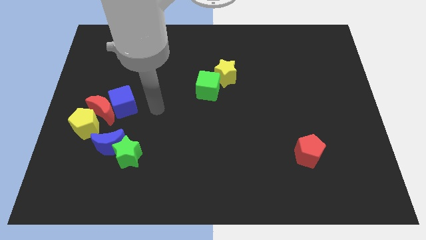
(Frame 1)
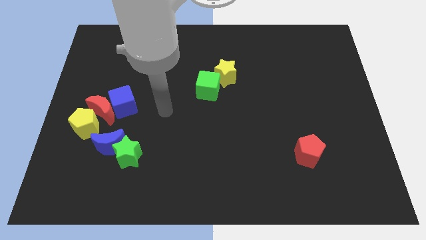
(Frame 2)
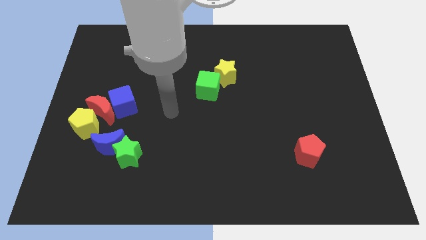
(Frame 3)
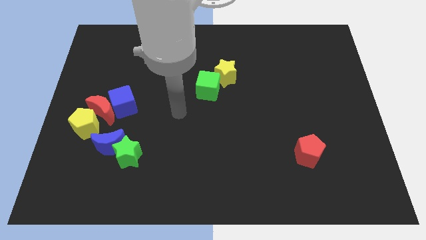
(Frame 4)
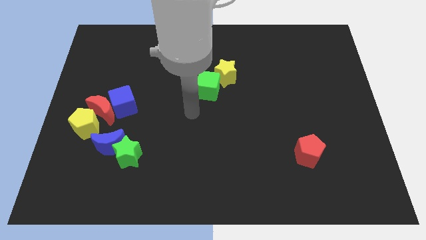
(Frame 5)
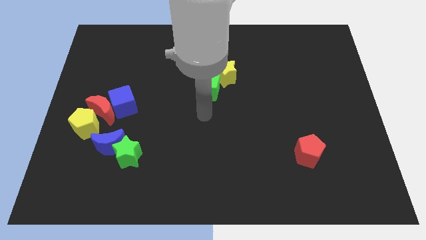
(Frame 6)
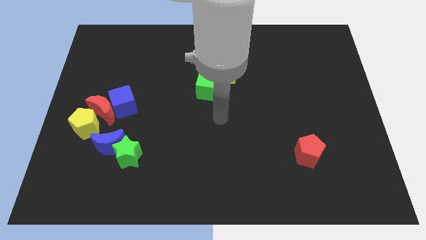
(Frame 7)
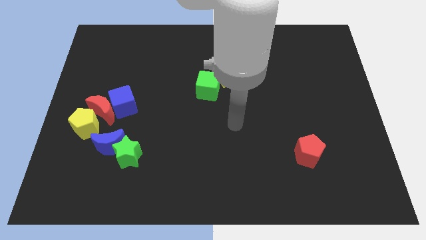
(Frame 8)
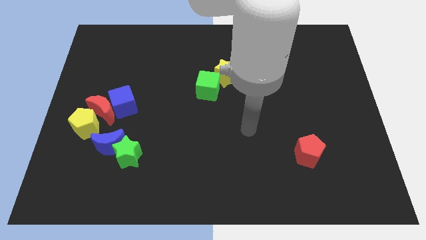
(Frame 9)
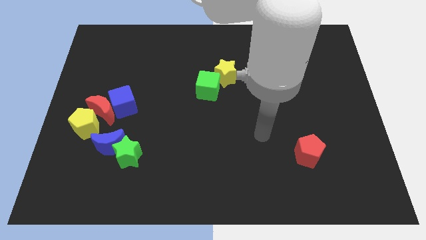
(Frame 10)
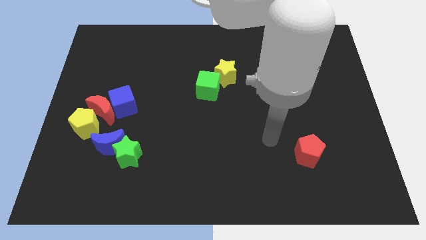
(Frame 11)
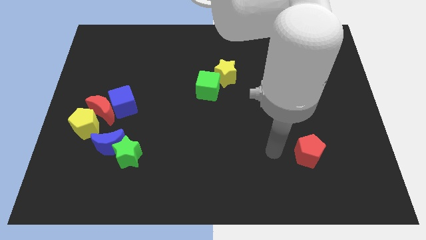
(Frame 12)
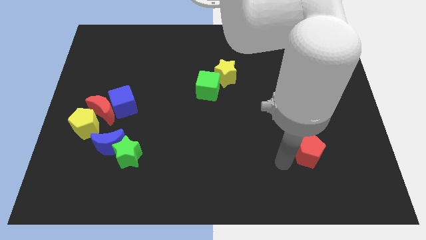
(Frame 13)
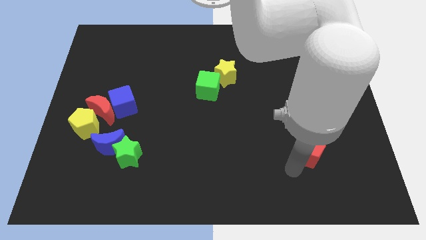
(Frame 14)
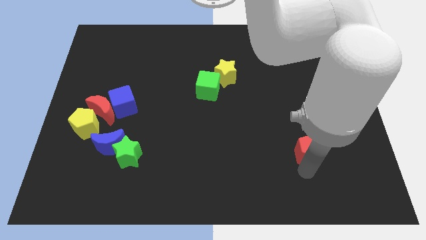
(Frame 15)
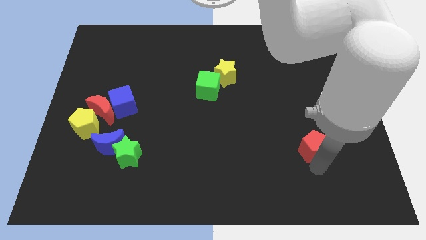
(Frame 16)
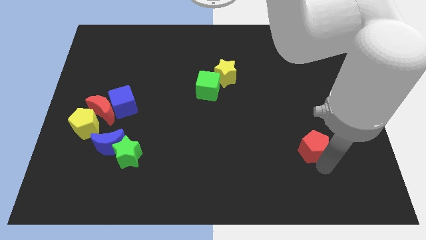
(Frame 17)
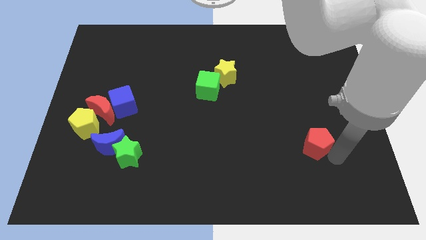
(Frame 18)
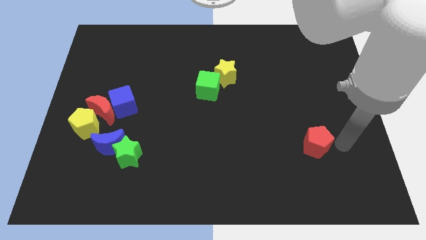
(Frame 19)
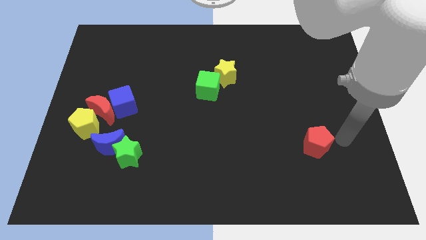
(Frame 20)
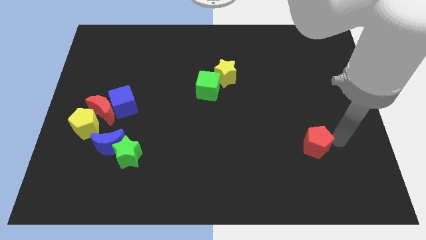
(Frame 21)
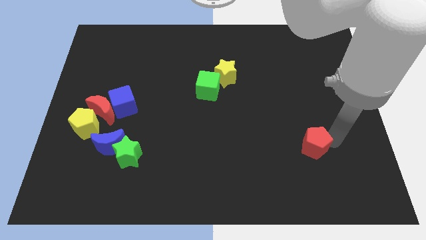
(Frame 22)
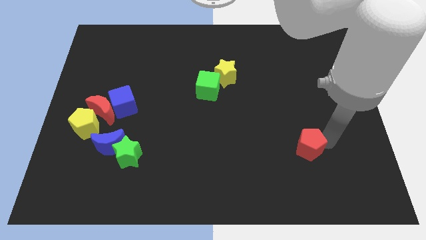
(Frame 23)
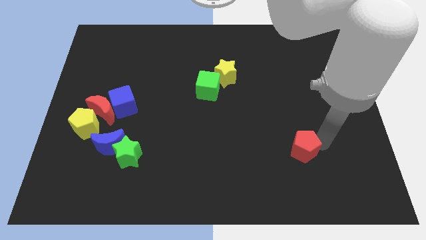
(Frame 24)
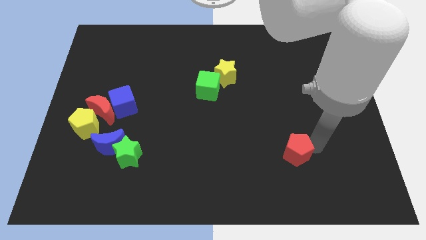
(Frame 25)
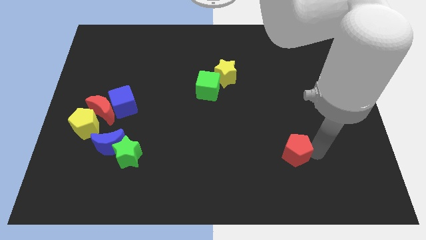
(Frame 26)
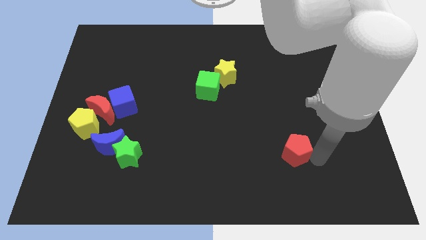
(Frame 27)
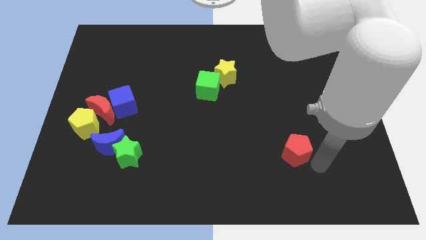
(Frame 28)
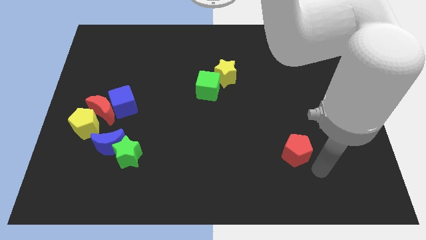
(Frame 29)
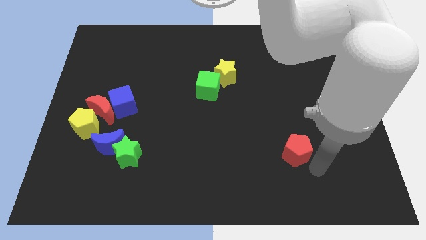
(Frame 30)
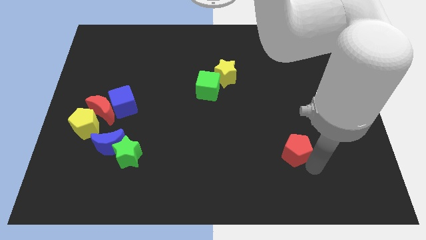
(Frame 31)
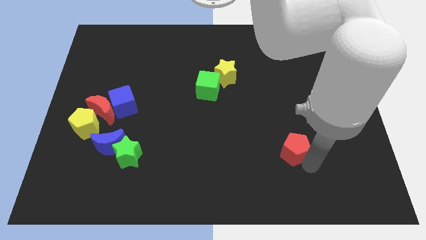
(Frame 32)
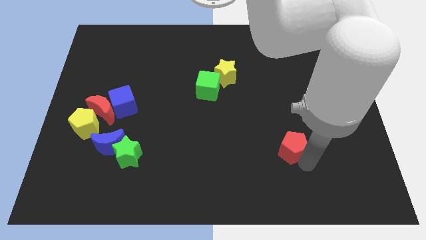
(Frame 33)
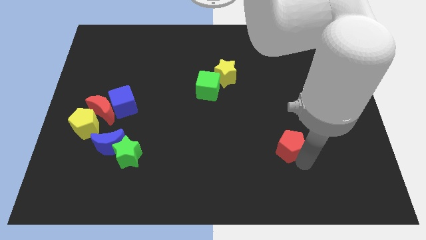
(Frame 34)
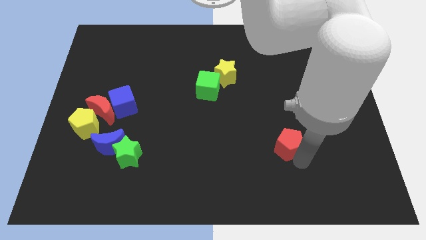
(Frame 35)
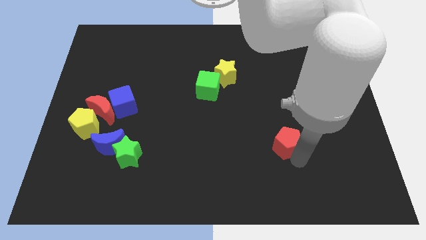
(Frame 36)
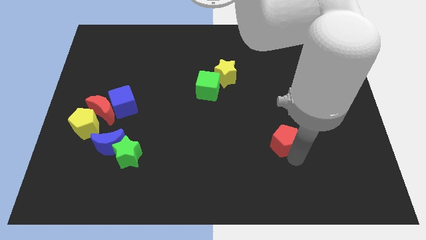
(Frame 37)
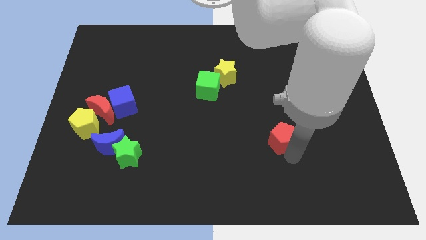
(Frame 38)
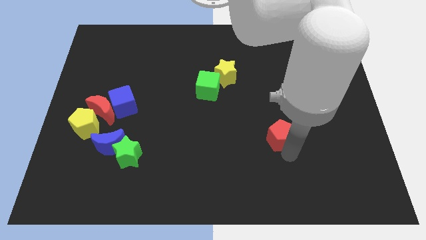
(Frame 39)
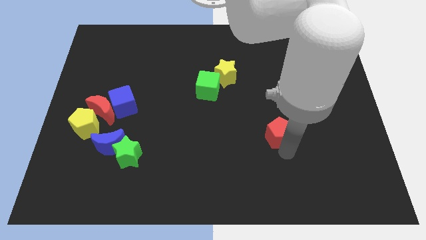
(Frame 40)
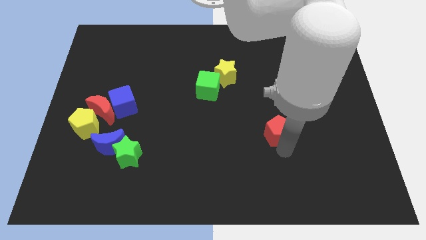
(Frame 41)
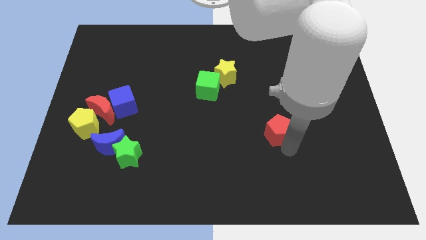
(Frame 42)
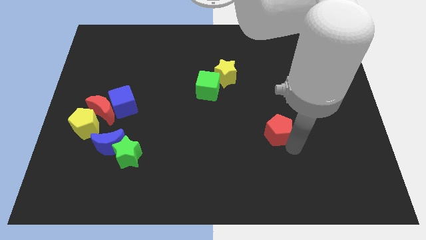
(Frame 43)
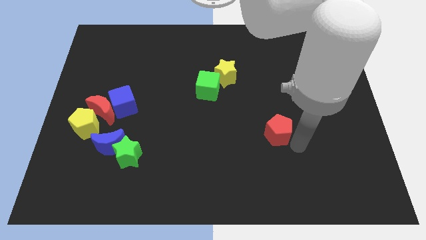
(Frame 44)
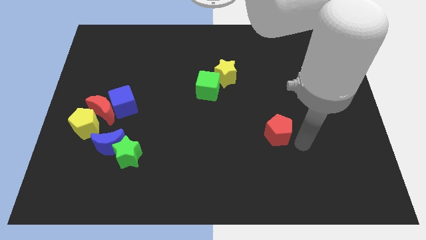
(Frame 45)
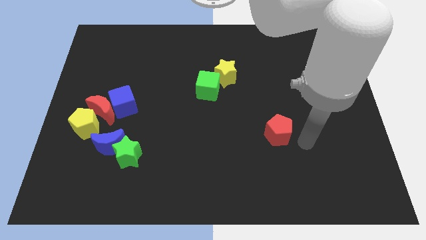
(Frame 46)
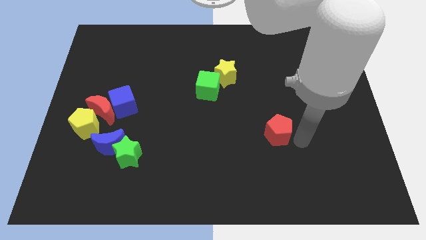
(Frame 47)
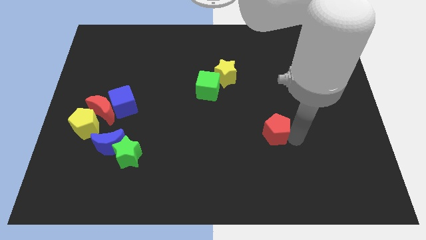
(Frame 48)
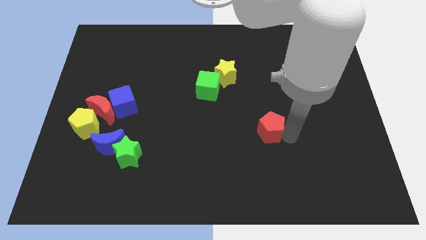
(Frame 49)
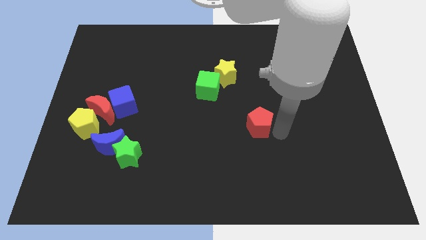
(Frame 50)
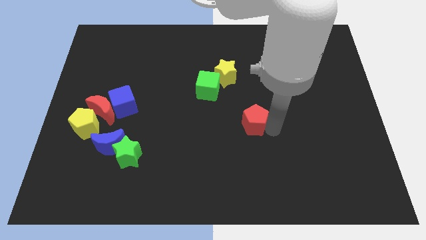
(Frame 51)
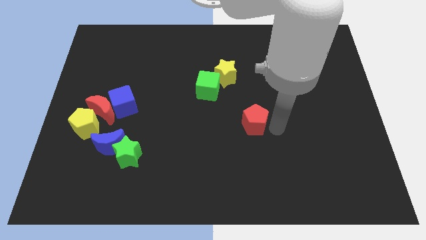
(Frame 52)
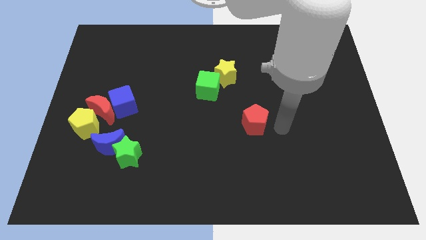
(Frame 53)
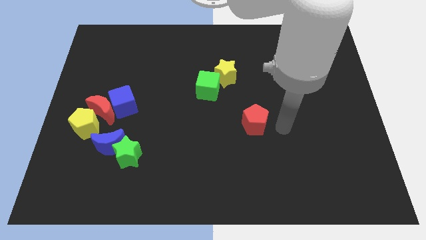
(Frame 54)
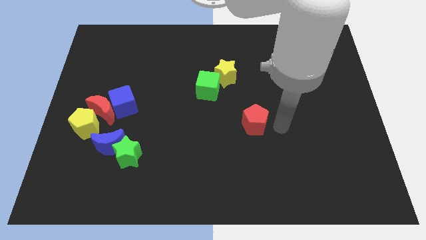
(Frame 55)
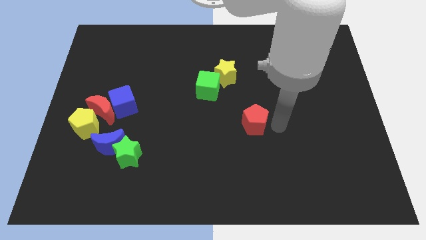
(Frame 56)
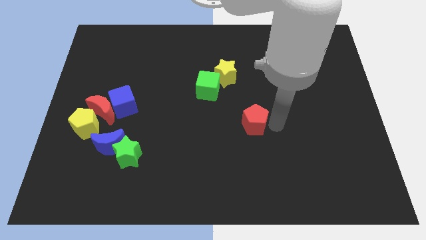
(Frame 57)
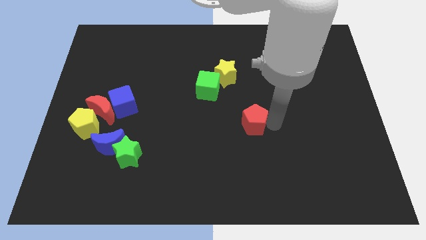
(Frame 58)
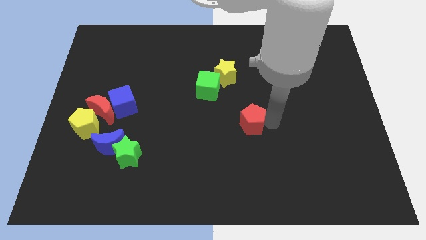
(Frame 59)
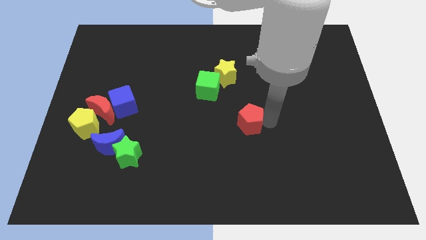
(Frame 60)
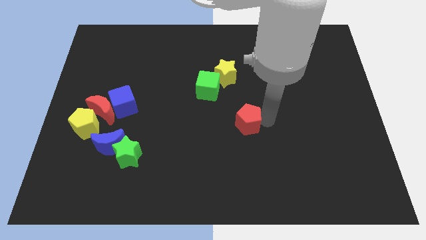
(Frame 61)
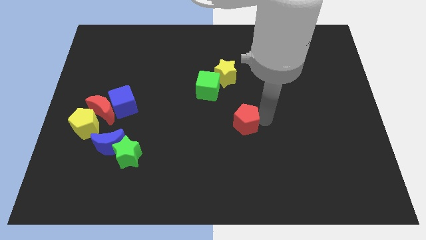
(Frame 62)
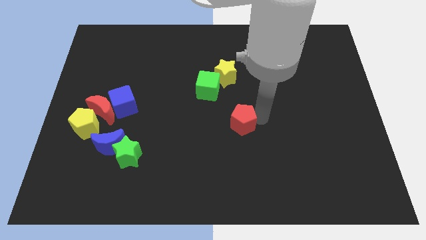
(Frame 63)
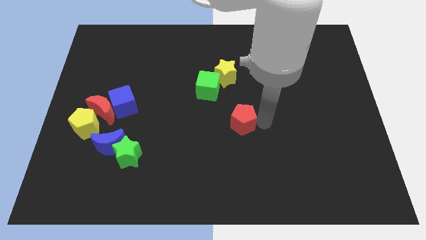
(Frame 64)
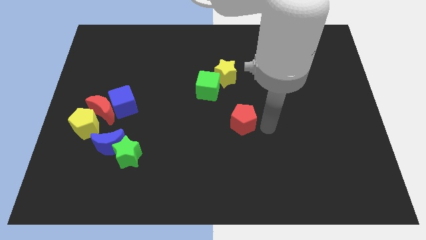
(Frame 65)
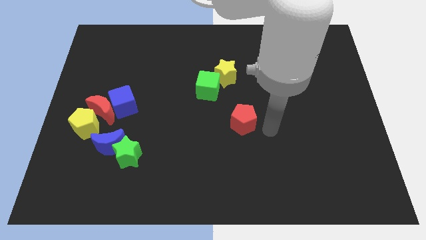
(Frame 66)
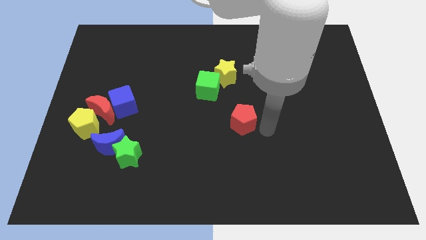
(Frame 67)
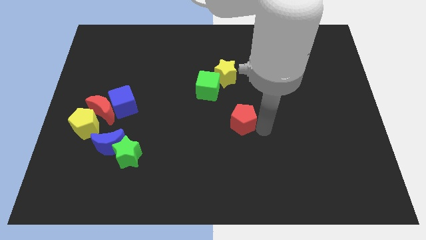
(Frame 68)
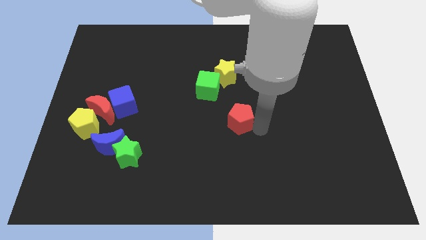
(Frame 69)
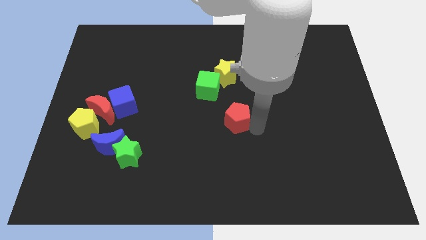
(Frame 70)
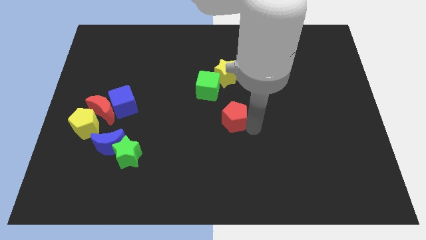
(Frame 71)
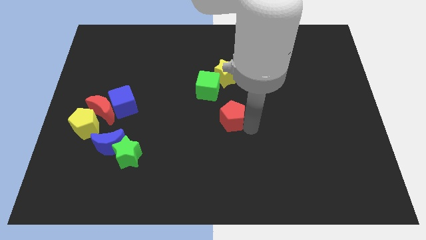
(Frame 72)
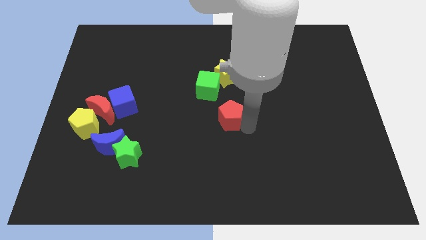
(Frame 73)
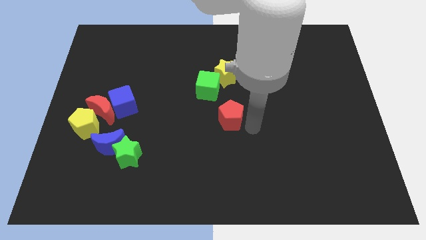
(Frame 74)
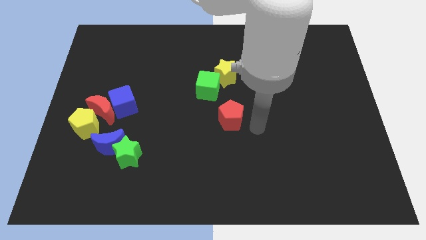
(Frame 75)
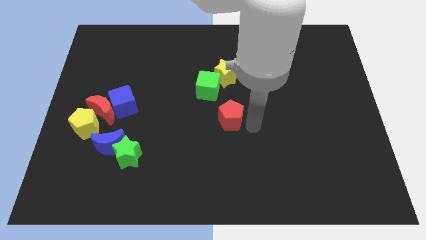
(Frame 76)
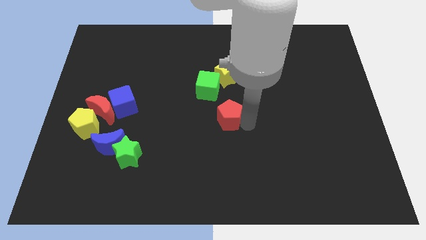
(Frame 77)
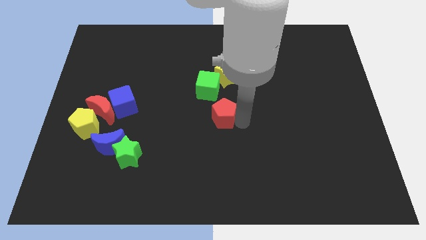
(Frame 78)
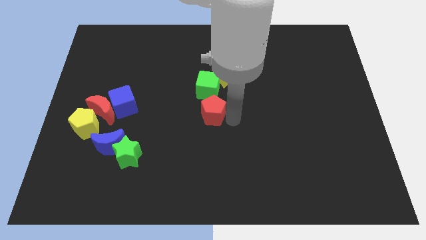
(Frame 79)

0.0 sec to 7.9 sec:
slide the red pentagon diagonally upwards and left

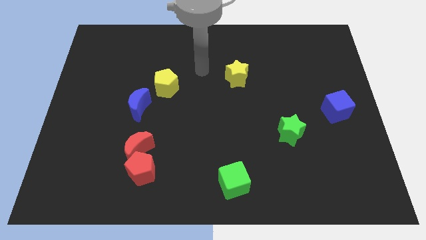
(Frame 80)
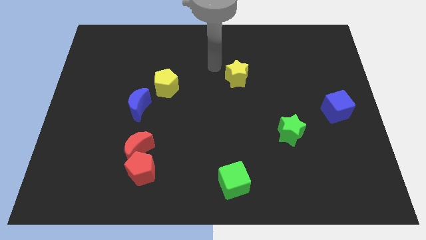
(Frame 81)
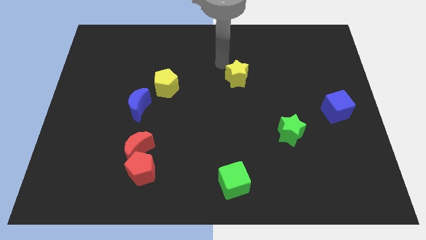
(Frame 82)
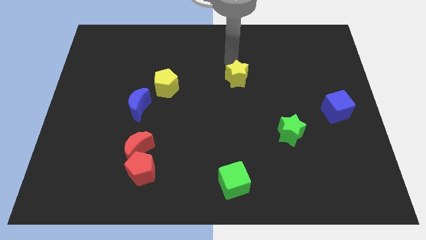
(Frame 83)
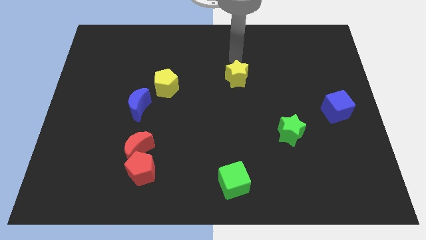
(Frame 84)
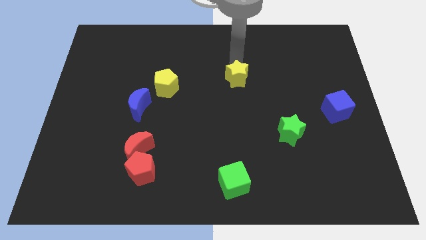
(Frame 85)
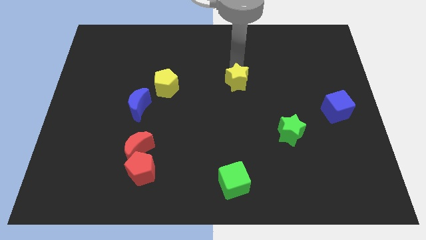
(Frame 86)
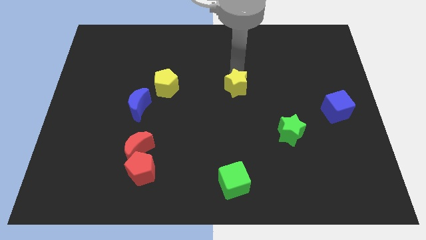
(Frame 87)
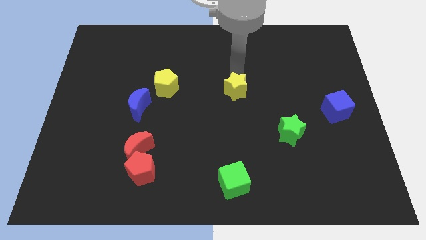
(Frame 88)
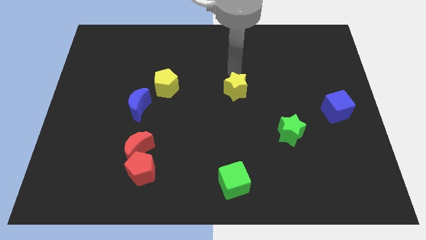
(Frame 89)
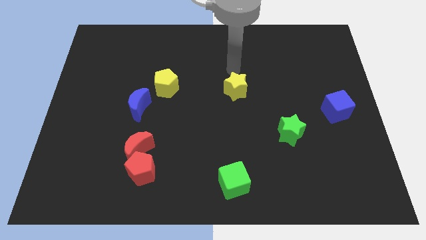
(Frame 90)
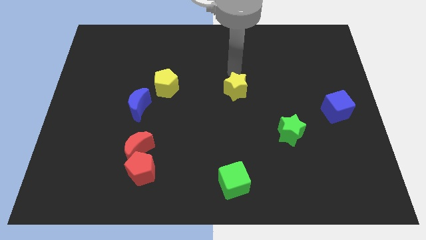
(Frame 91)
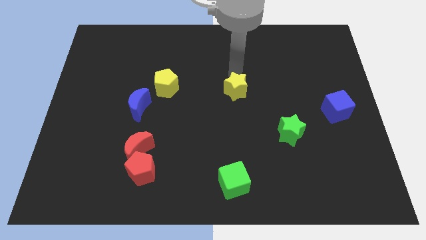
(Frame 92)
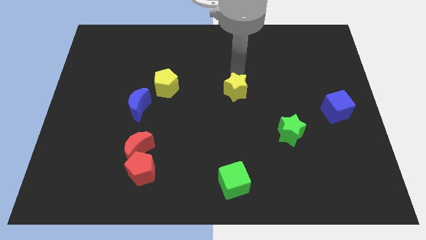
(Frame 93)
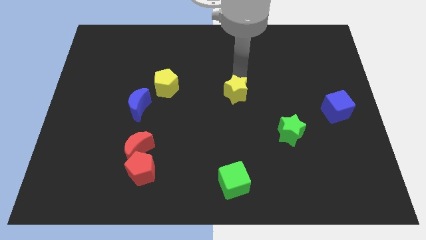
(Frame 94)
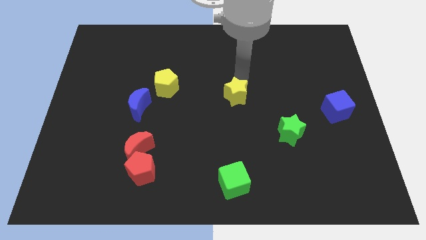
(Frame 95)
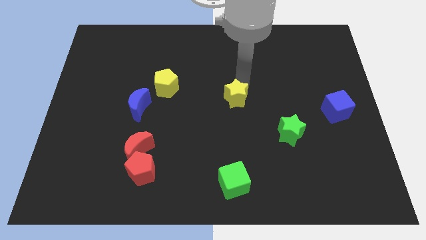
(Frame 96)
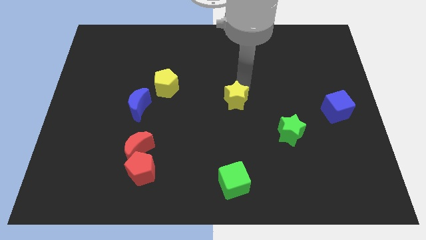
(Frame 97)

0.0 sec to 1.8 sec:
slide the yellow star a little down
